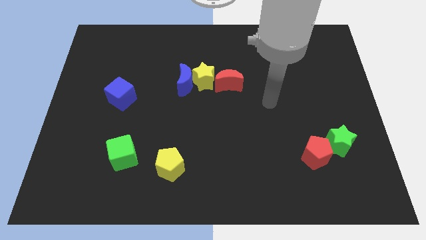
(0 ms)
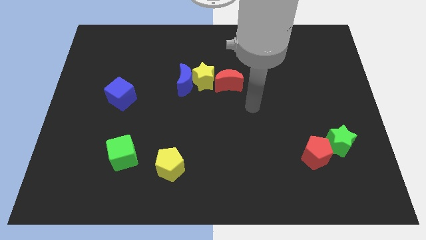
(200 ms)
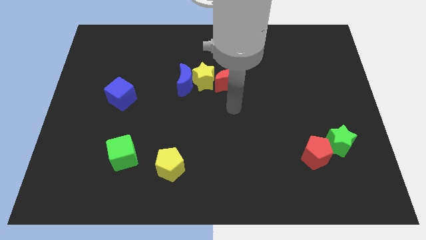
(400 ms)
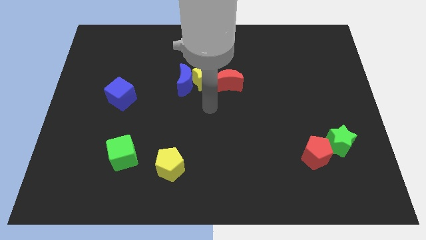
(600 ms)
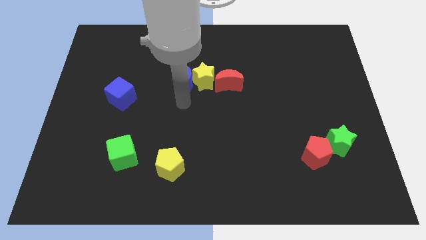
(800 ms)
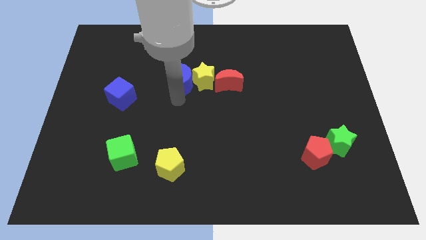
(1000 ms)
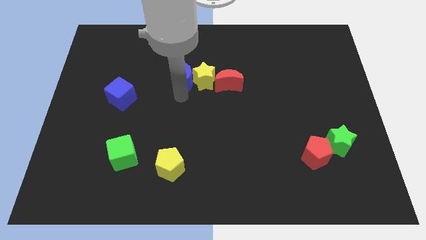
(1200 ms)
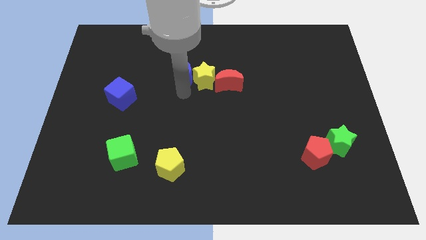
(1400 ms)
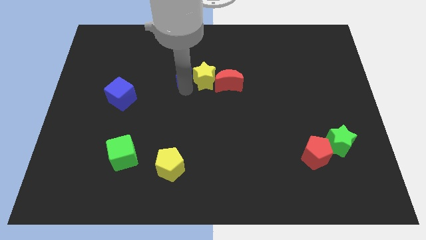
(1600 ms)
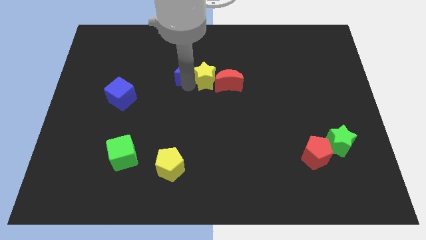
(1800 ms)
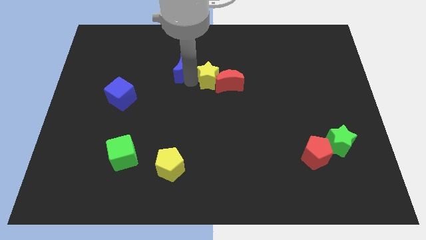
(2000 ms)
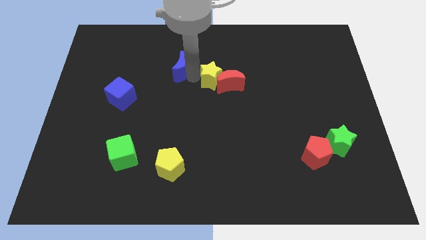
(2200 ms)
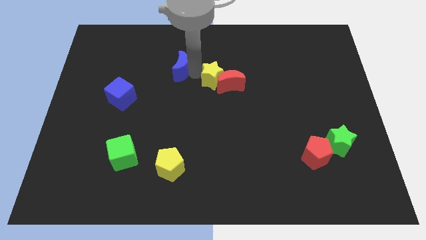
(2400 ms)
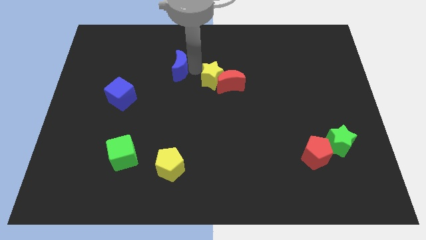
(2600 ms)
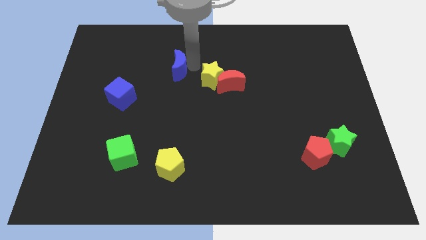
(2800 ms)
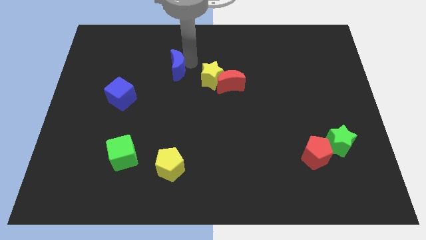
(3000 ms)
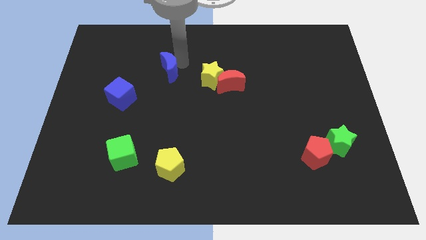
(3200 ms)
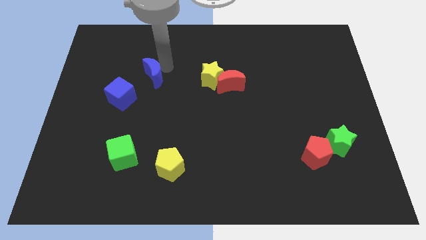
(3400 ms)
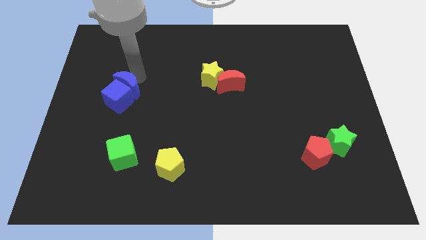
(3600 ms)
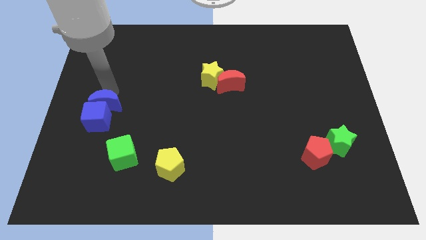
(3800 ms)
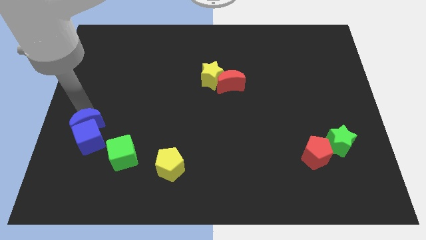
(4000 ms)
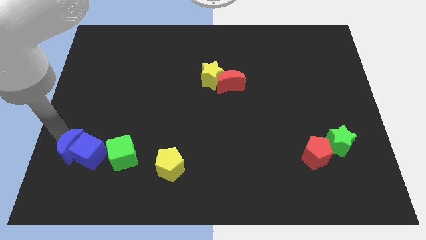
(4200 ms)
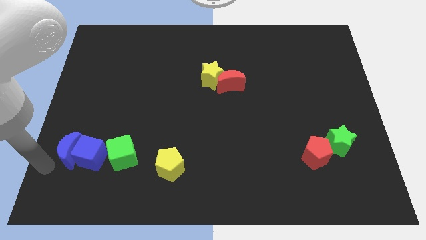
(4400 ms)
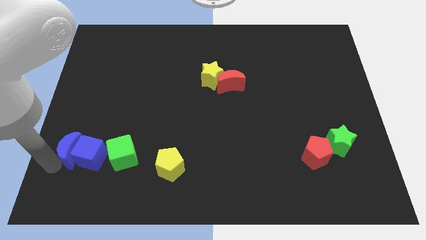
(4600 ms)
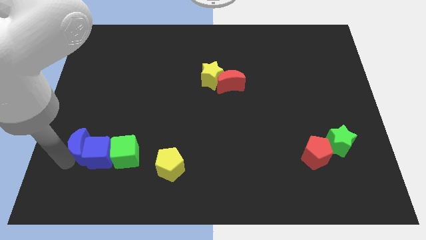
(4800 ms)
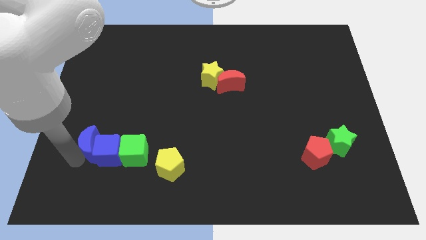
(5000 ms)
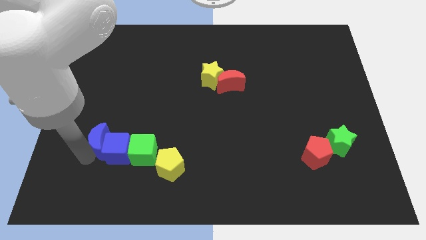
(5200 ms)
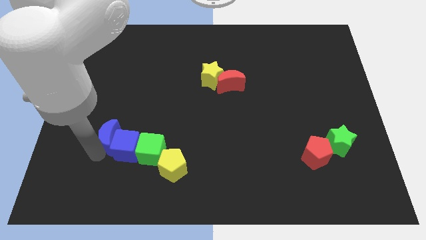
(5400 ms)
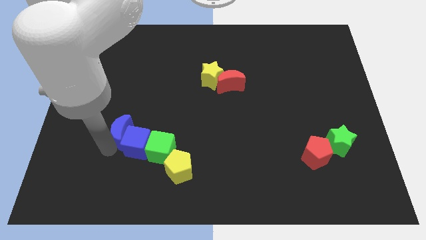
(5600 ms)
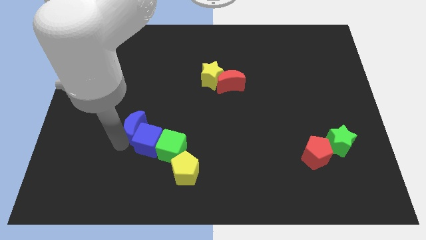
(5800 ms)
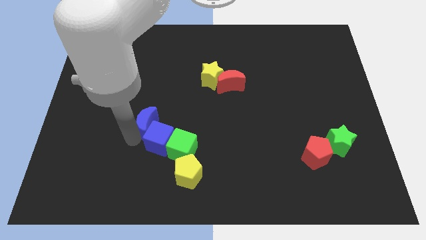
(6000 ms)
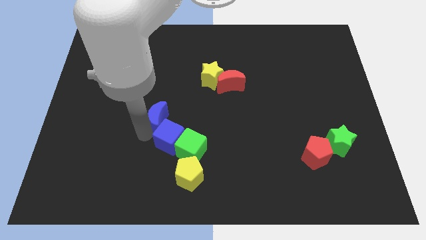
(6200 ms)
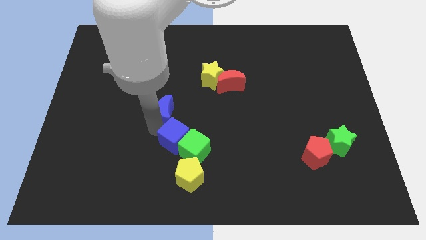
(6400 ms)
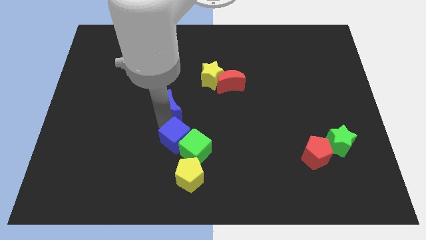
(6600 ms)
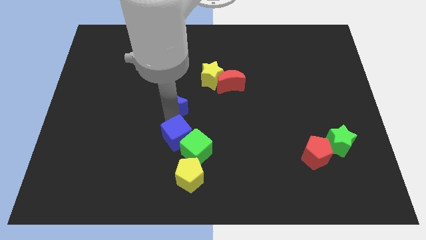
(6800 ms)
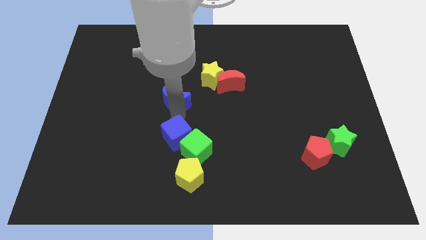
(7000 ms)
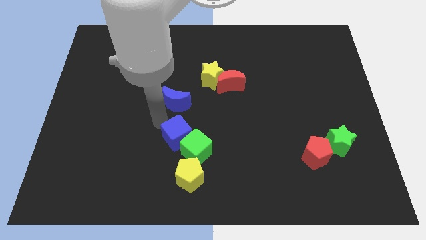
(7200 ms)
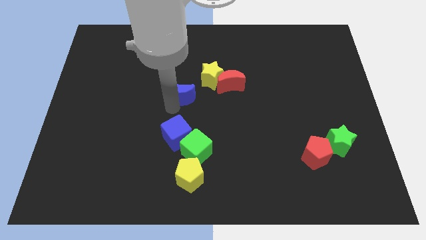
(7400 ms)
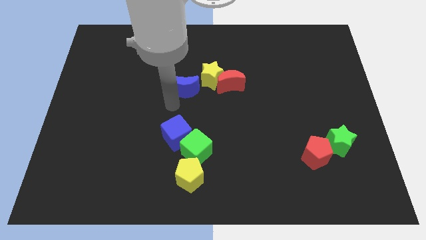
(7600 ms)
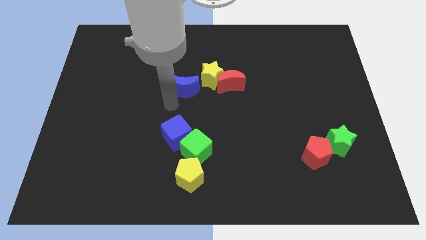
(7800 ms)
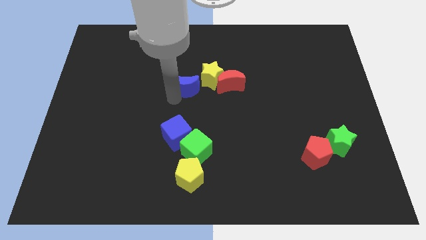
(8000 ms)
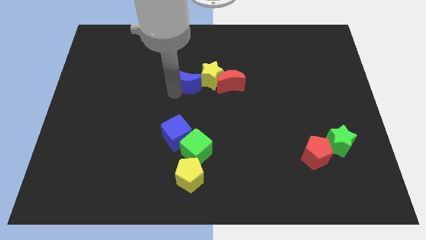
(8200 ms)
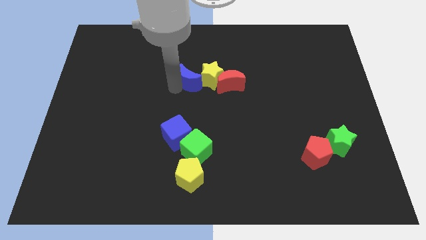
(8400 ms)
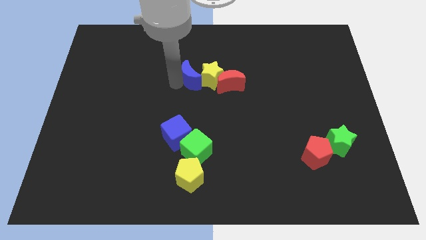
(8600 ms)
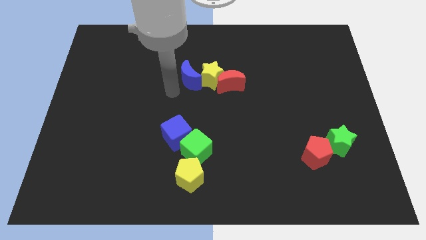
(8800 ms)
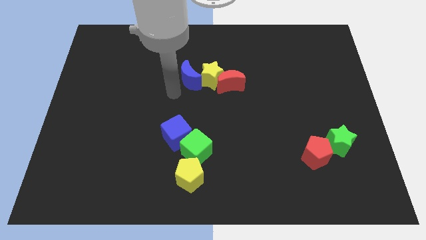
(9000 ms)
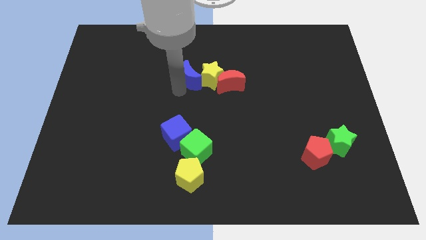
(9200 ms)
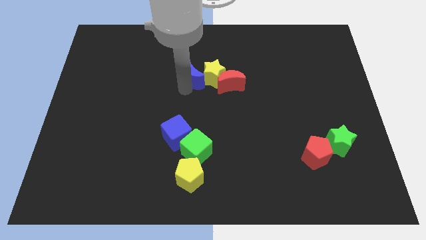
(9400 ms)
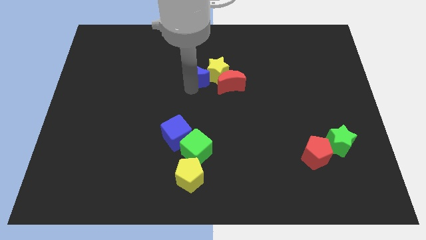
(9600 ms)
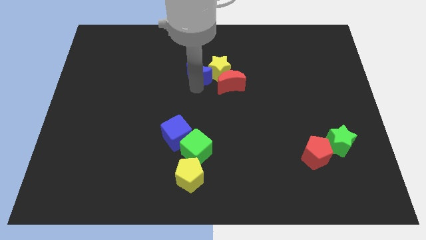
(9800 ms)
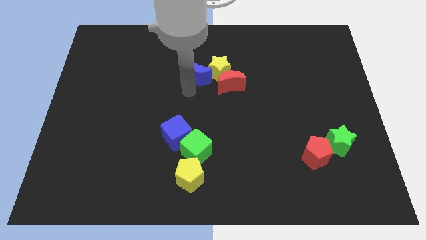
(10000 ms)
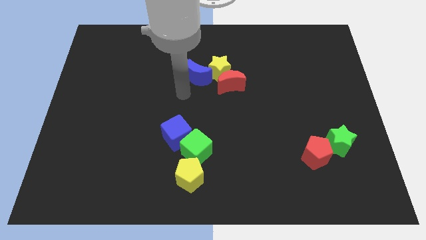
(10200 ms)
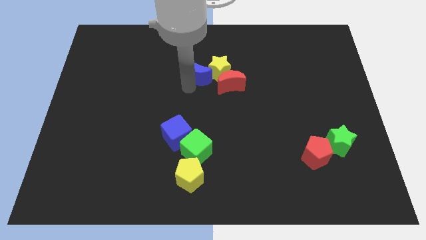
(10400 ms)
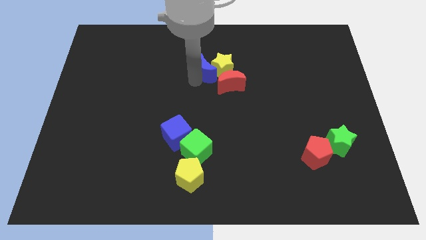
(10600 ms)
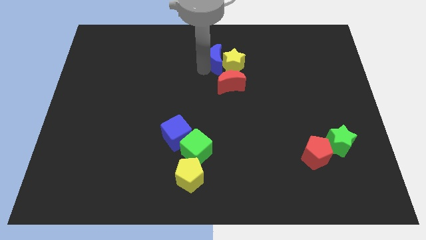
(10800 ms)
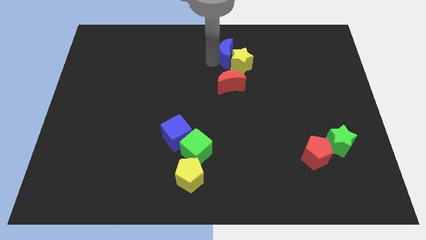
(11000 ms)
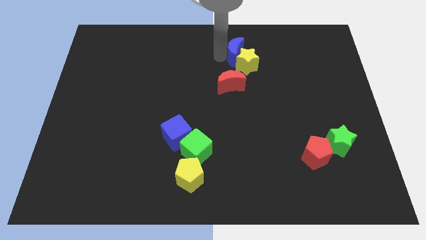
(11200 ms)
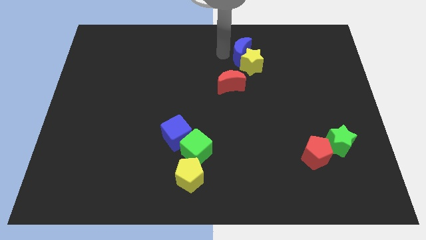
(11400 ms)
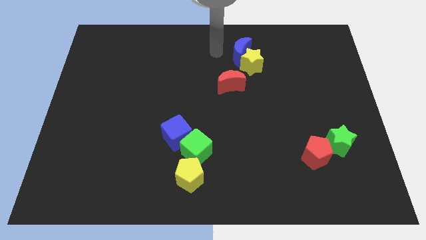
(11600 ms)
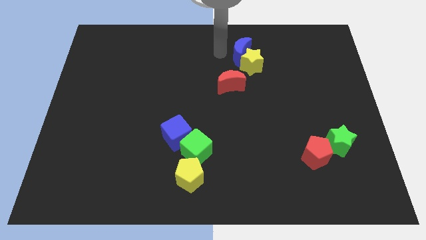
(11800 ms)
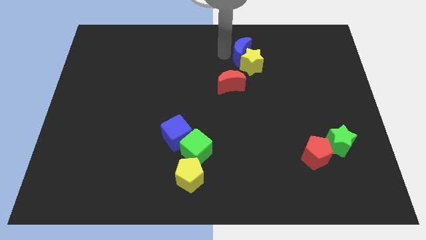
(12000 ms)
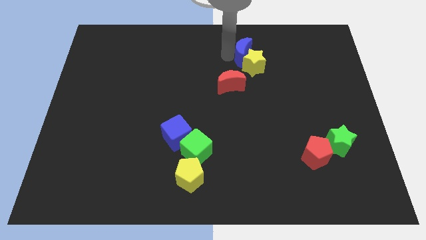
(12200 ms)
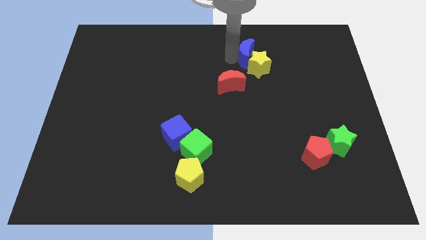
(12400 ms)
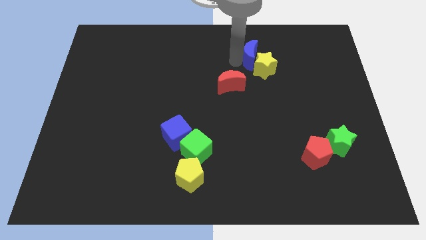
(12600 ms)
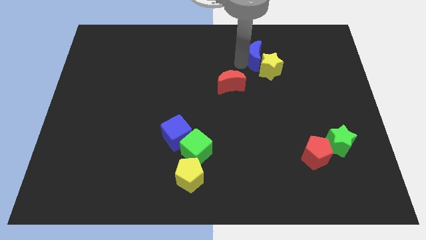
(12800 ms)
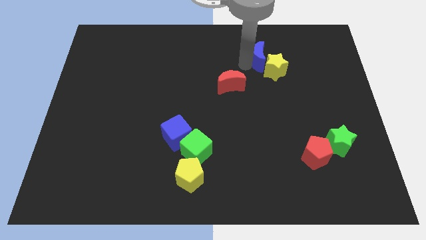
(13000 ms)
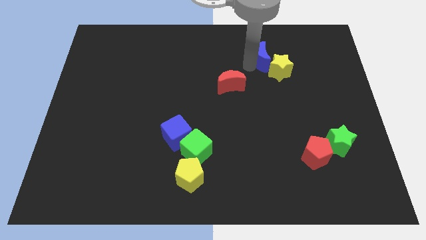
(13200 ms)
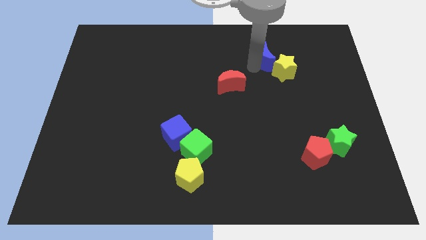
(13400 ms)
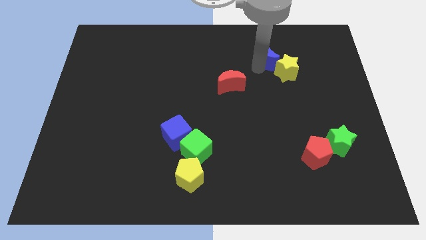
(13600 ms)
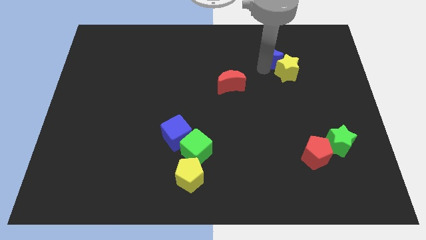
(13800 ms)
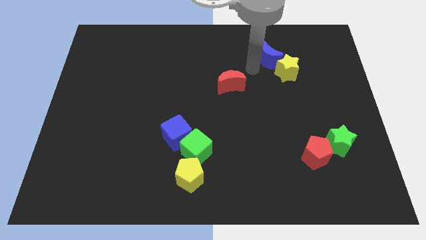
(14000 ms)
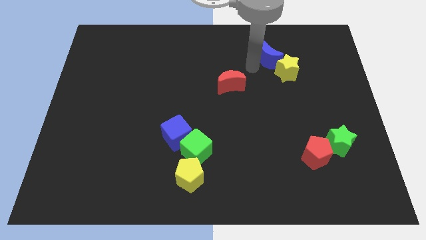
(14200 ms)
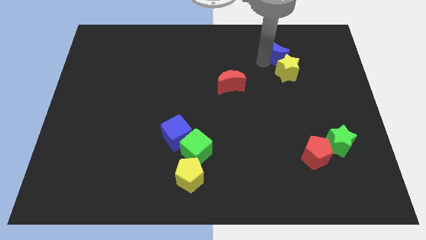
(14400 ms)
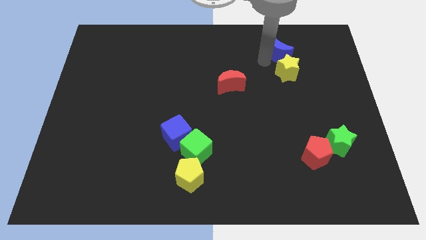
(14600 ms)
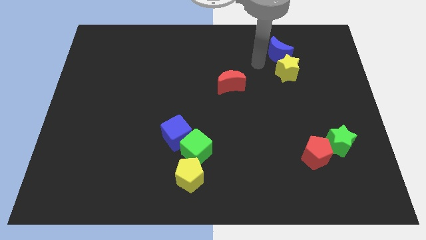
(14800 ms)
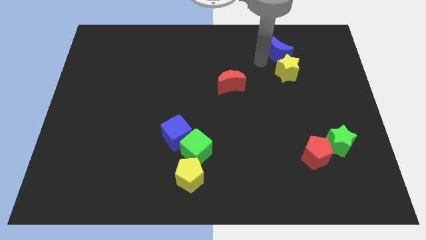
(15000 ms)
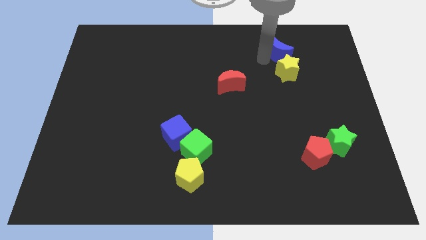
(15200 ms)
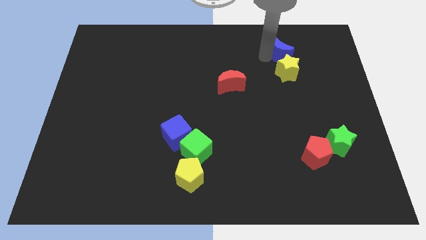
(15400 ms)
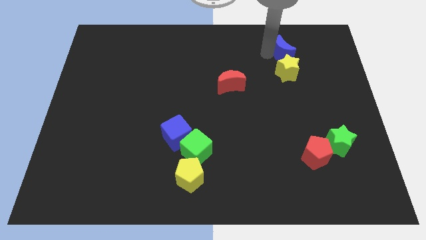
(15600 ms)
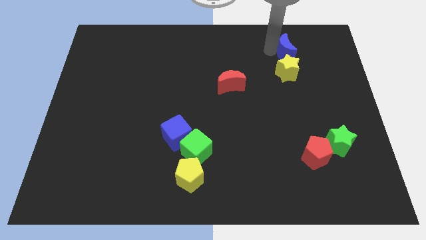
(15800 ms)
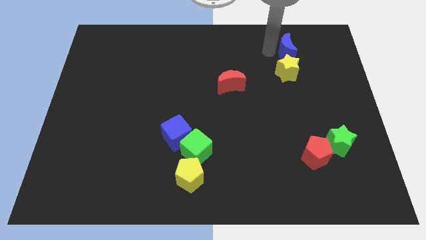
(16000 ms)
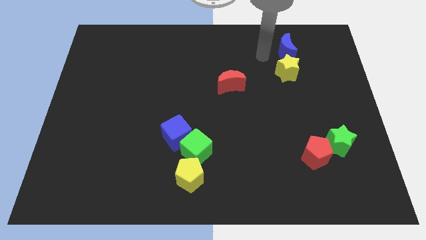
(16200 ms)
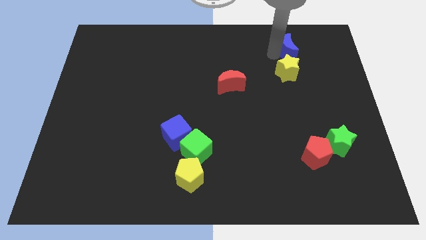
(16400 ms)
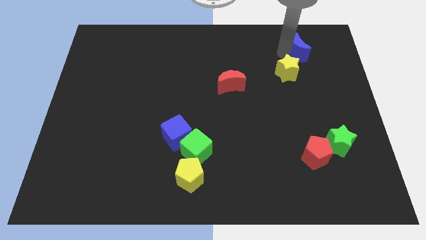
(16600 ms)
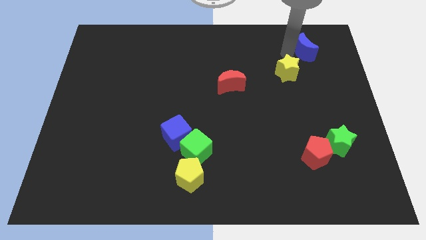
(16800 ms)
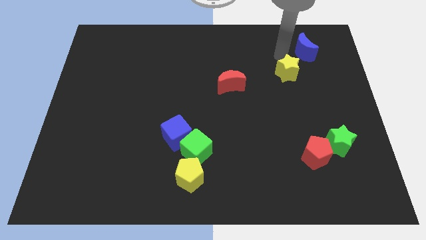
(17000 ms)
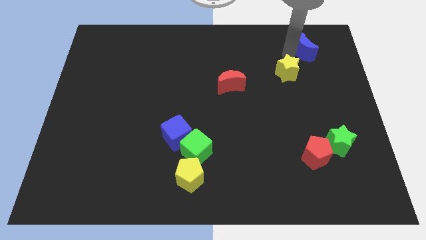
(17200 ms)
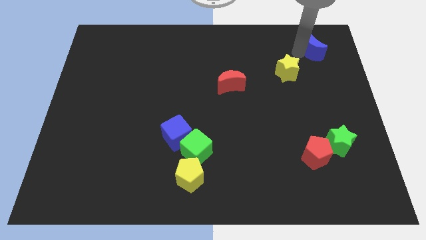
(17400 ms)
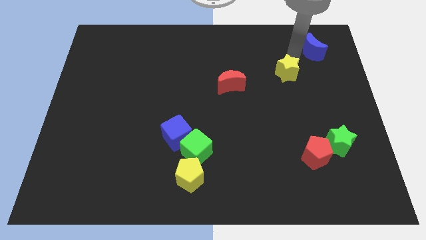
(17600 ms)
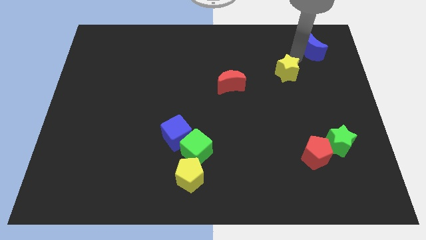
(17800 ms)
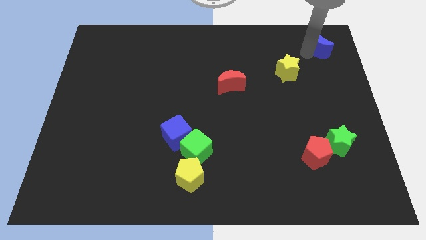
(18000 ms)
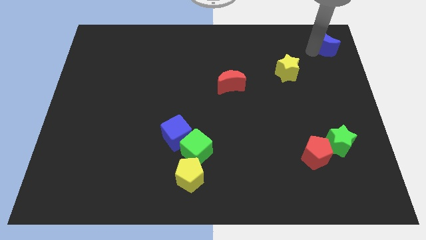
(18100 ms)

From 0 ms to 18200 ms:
slide the blue moon to the top right of the board
